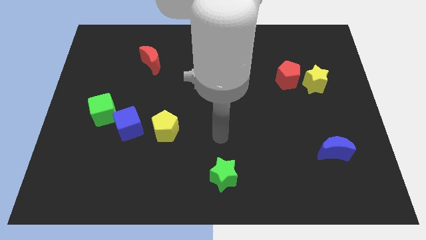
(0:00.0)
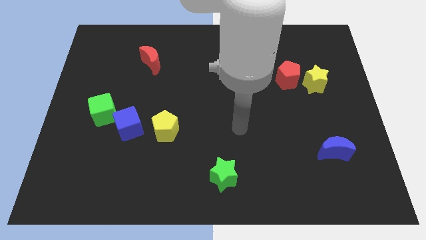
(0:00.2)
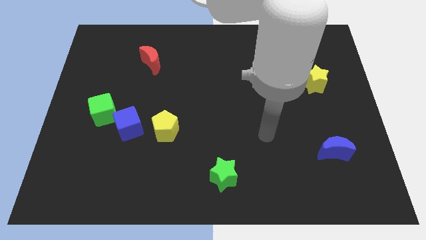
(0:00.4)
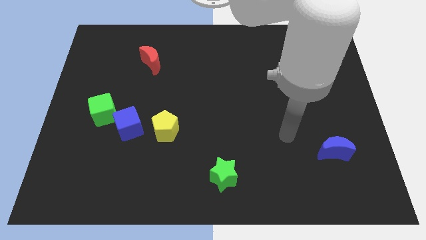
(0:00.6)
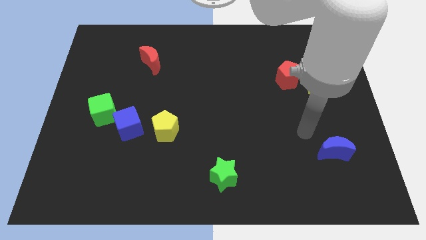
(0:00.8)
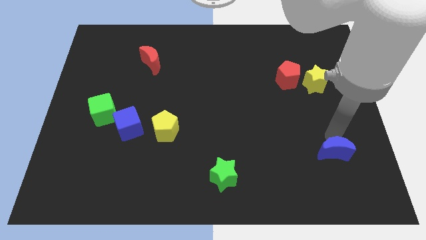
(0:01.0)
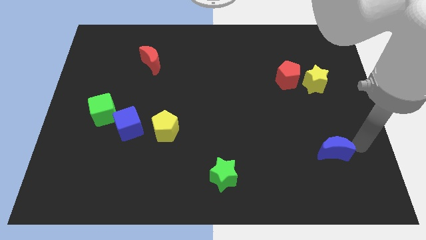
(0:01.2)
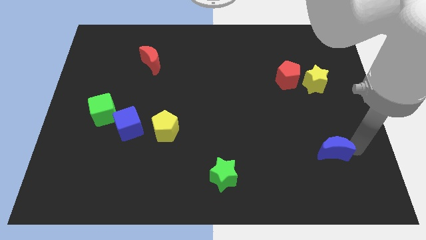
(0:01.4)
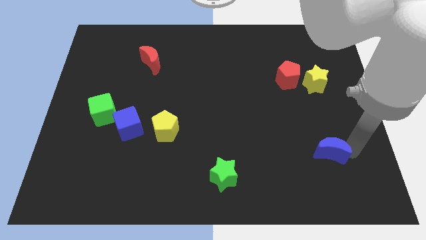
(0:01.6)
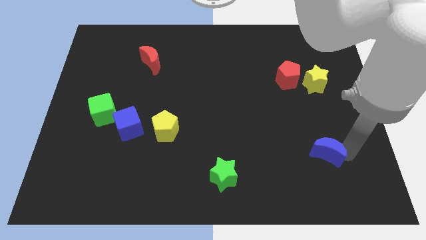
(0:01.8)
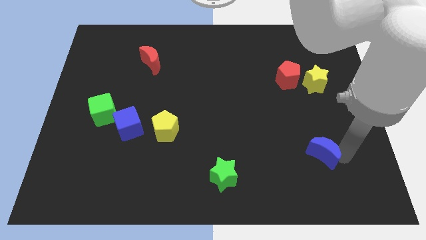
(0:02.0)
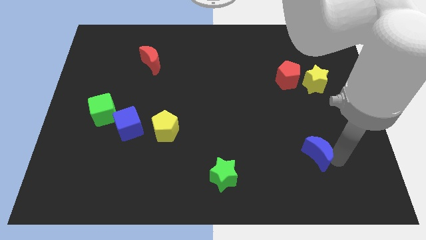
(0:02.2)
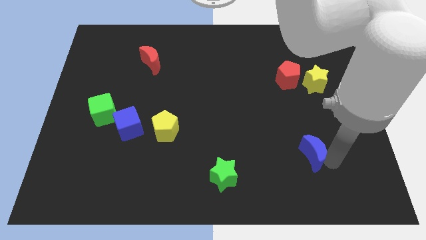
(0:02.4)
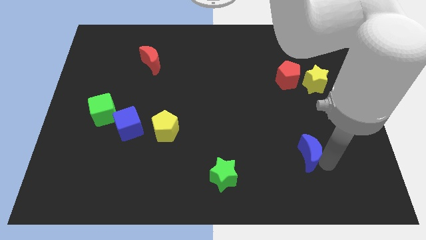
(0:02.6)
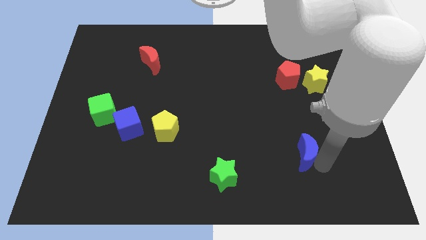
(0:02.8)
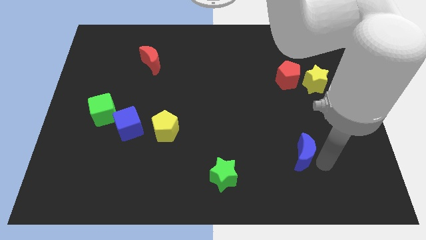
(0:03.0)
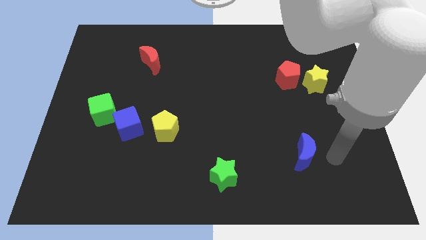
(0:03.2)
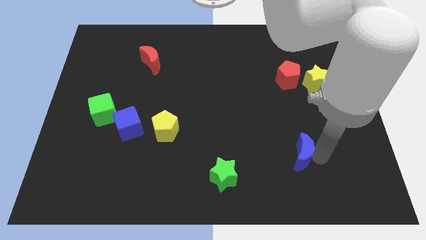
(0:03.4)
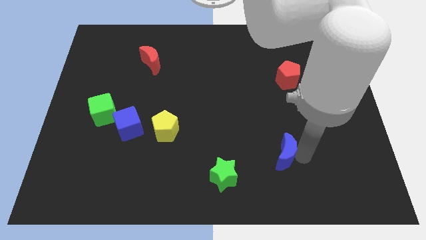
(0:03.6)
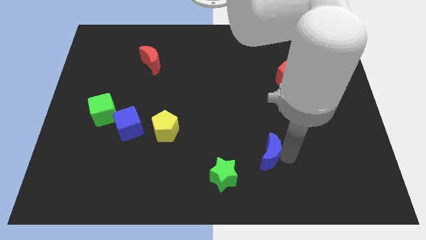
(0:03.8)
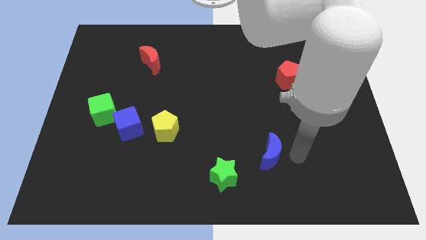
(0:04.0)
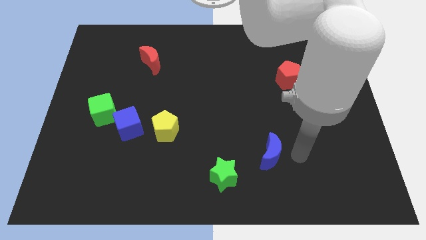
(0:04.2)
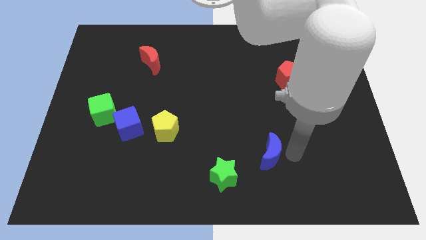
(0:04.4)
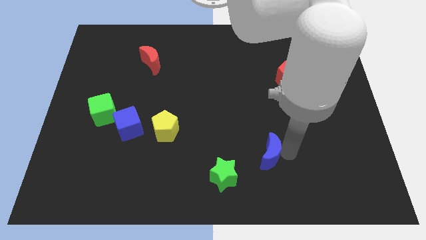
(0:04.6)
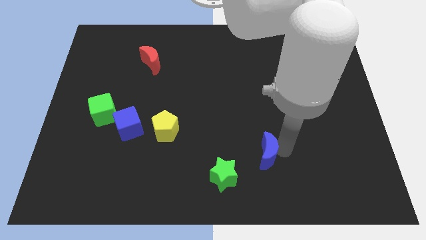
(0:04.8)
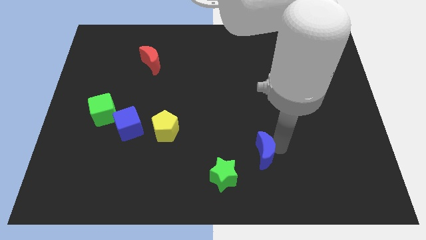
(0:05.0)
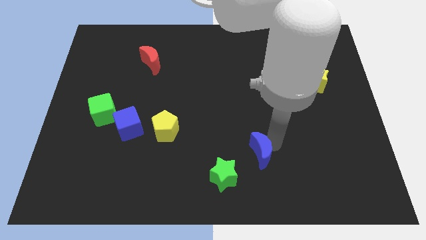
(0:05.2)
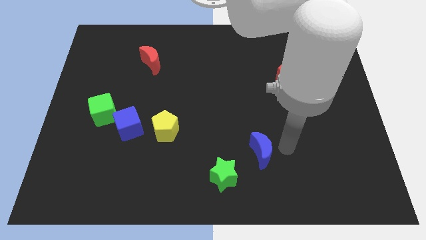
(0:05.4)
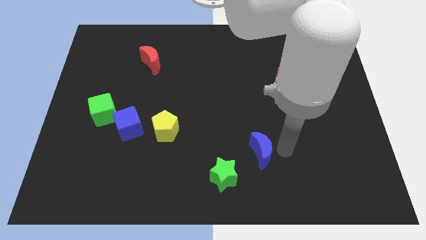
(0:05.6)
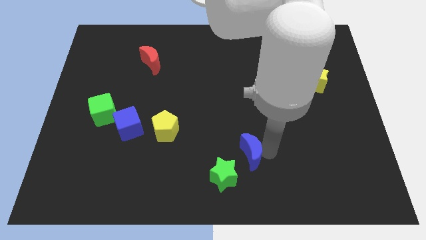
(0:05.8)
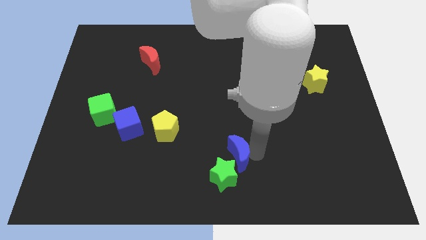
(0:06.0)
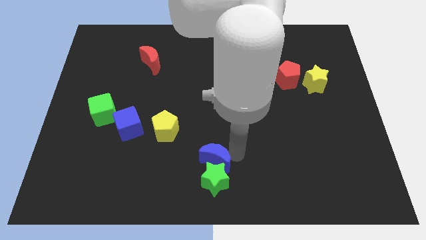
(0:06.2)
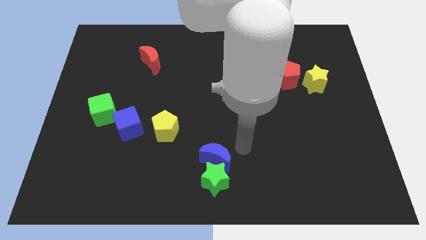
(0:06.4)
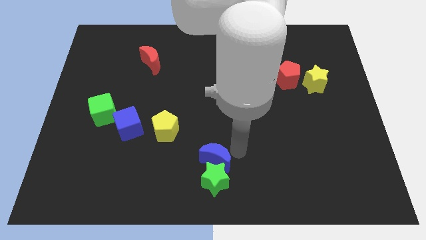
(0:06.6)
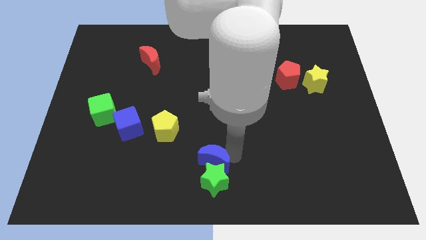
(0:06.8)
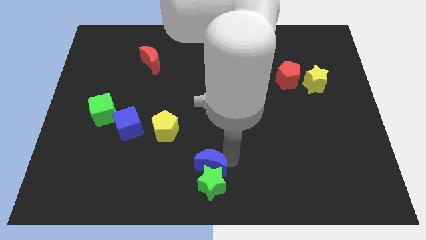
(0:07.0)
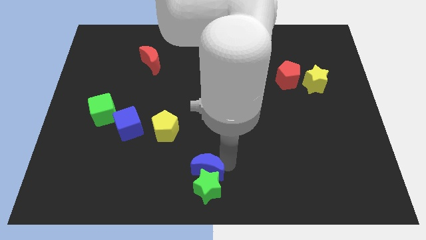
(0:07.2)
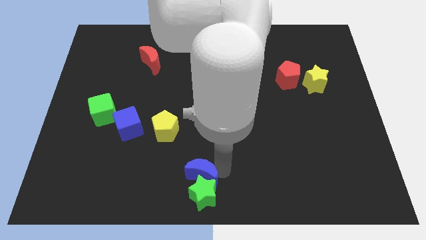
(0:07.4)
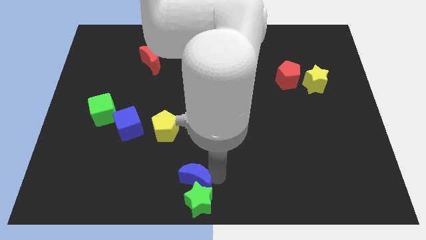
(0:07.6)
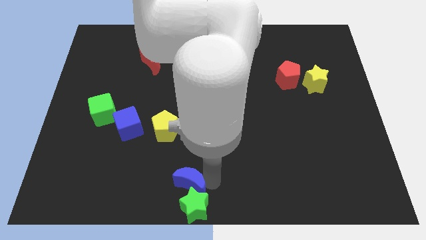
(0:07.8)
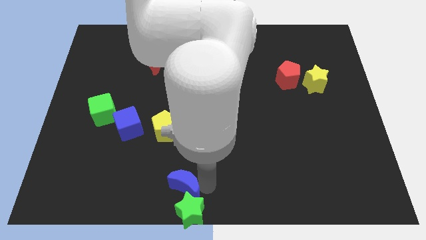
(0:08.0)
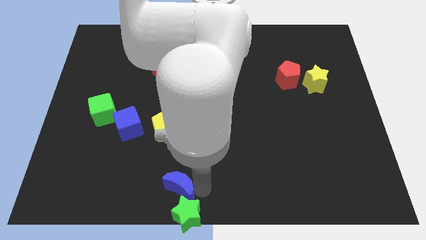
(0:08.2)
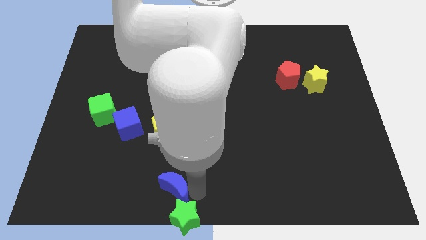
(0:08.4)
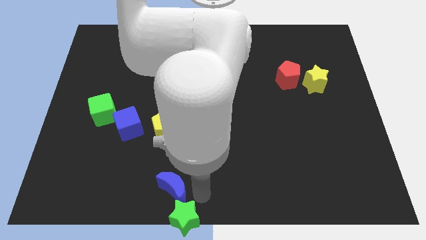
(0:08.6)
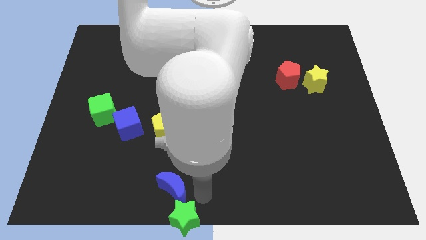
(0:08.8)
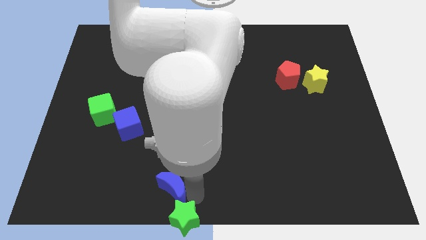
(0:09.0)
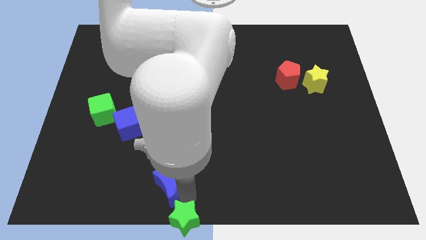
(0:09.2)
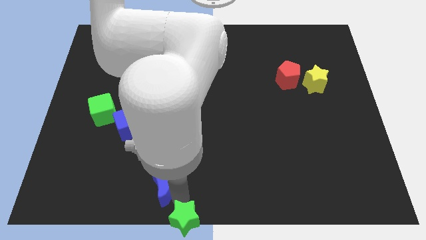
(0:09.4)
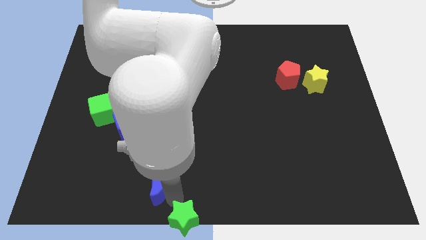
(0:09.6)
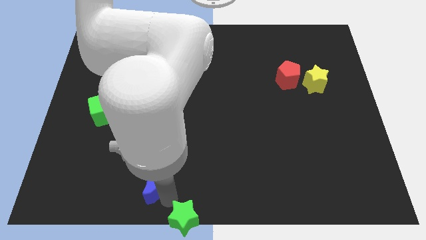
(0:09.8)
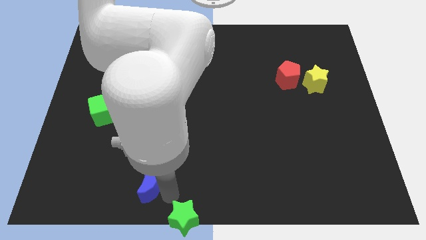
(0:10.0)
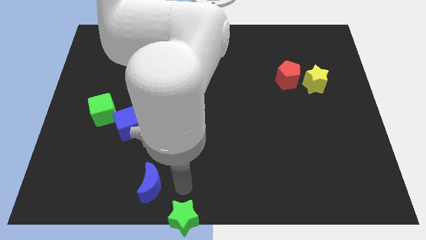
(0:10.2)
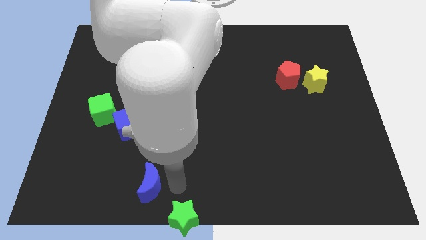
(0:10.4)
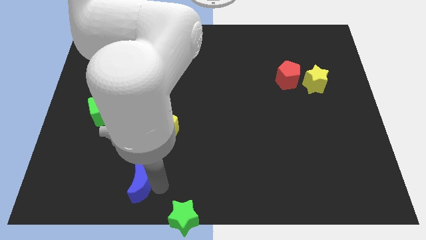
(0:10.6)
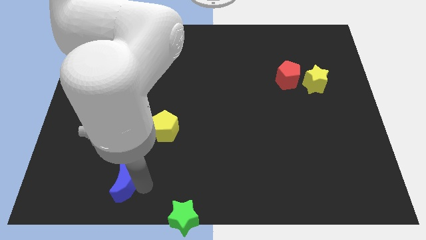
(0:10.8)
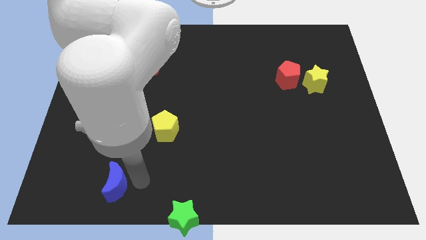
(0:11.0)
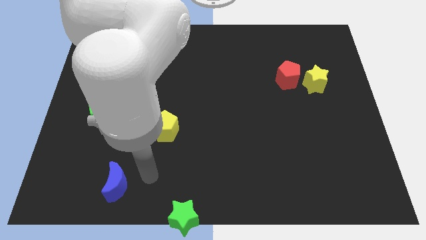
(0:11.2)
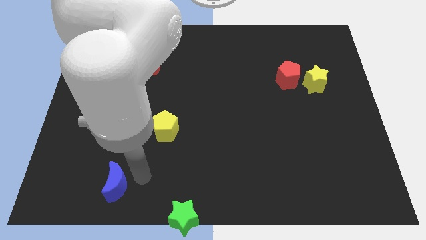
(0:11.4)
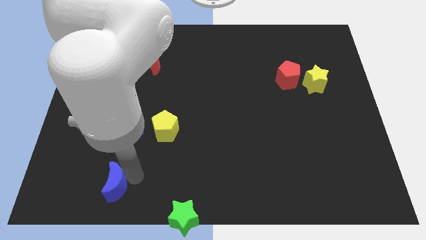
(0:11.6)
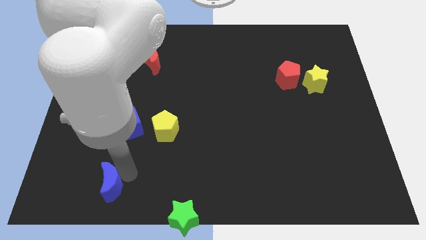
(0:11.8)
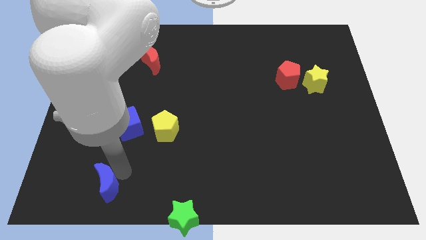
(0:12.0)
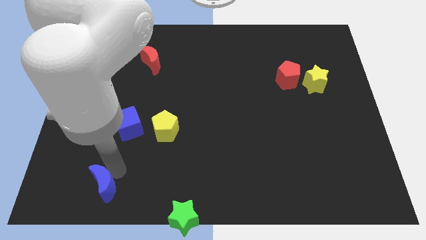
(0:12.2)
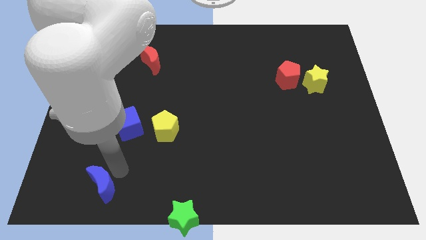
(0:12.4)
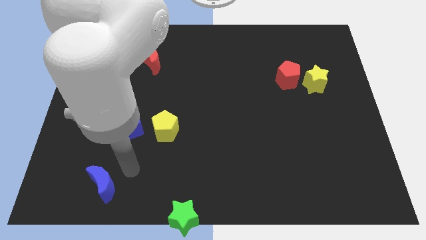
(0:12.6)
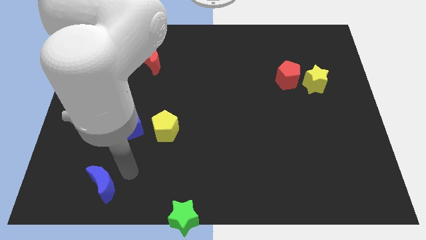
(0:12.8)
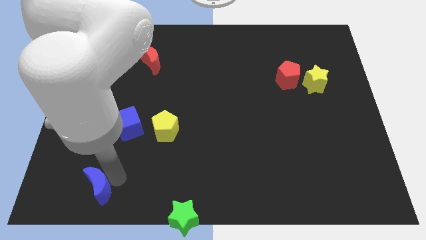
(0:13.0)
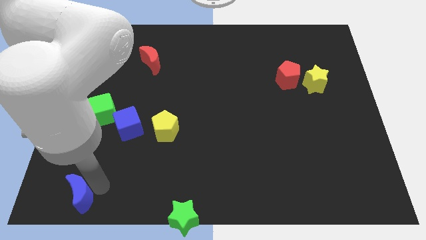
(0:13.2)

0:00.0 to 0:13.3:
slide the blue moon to the bottom left
